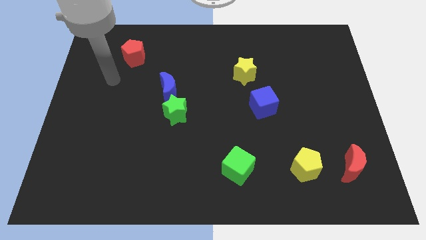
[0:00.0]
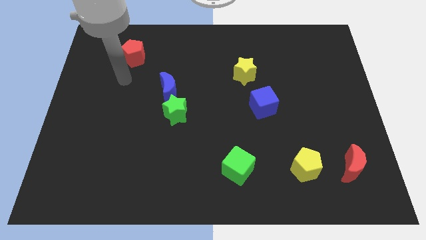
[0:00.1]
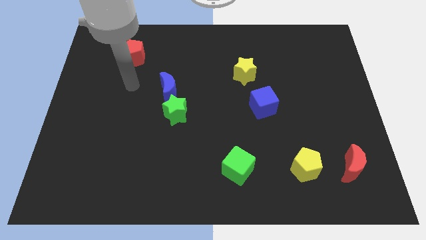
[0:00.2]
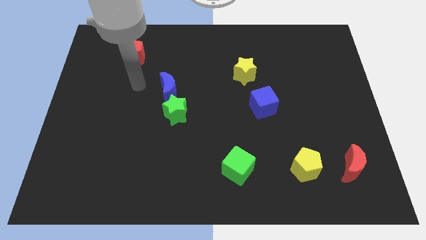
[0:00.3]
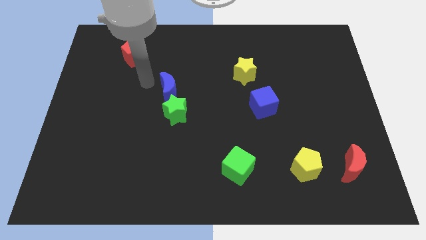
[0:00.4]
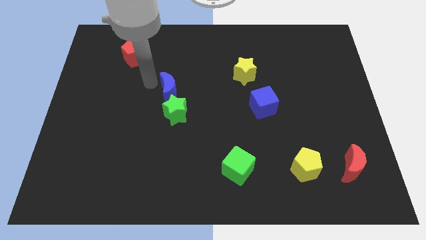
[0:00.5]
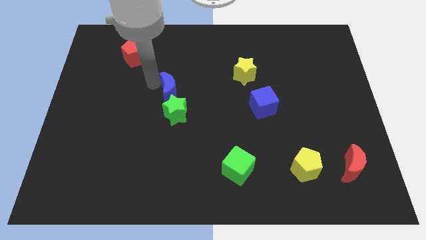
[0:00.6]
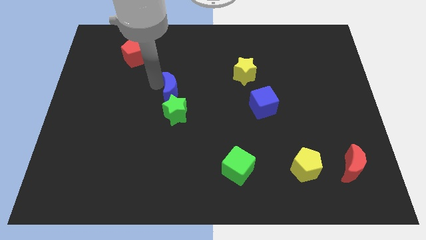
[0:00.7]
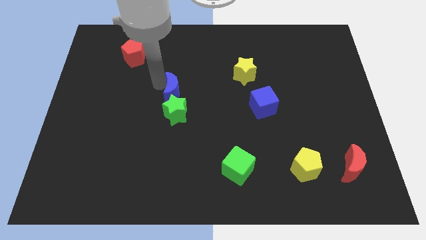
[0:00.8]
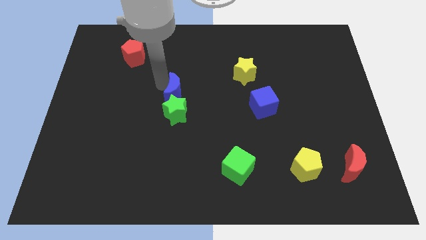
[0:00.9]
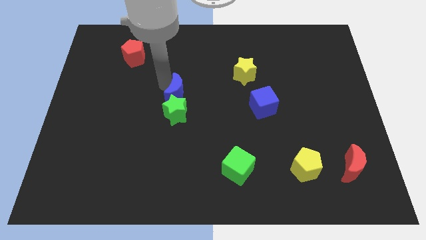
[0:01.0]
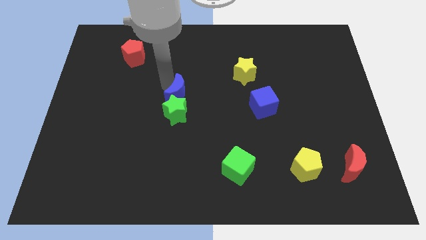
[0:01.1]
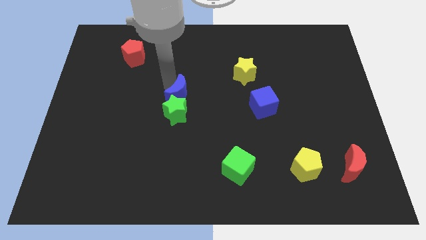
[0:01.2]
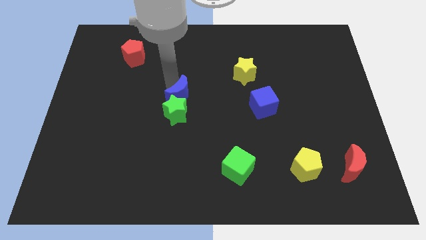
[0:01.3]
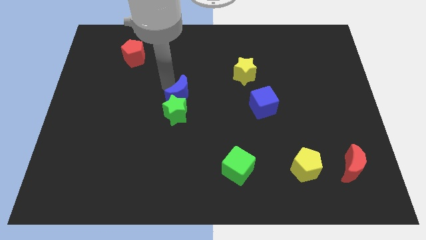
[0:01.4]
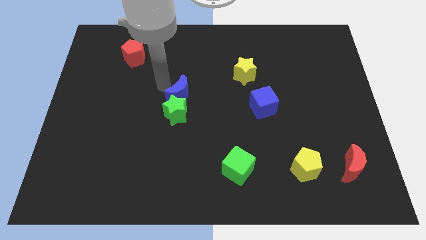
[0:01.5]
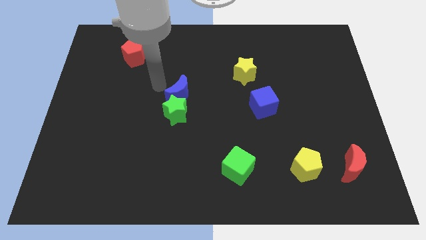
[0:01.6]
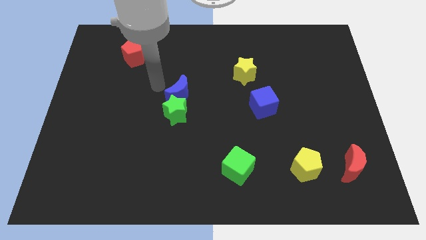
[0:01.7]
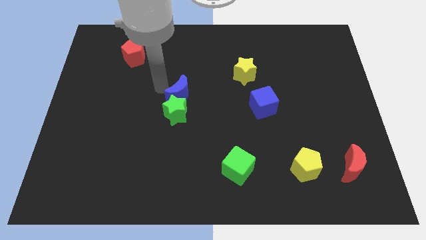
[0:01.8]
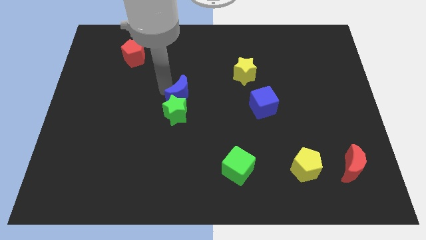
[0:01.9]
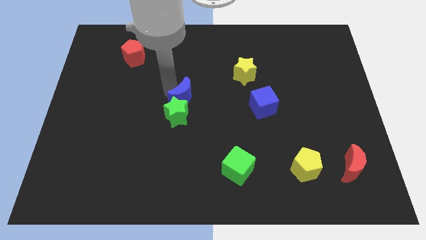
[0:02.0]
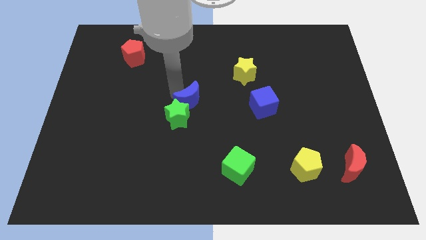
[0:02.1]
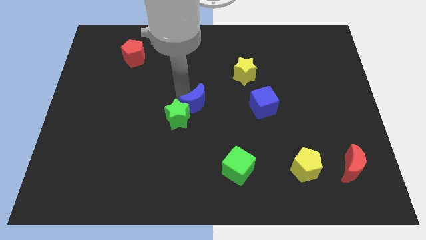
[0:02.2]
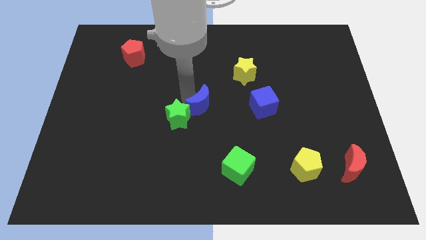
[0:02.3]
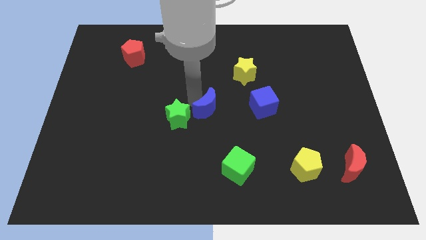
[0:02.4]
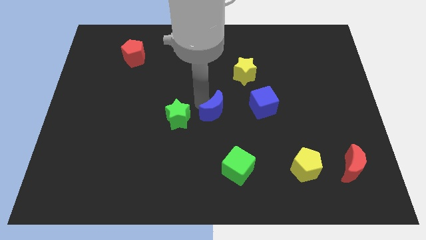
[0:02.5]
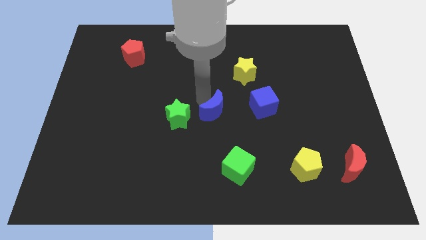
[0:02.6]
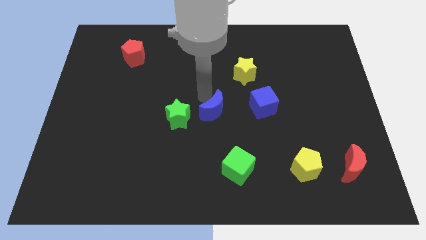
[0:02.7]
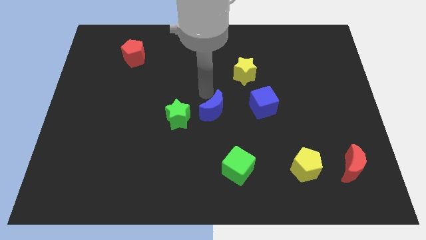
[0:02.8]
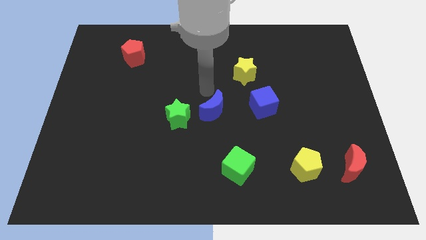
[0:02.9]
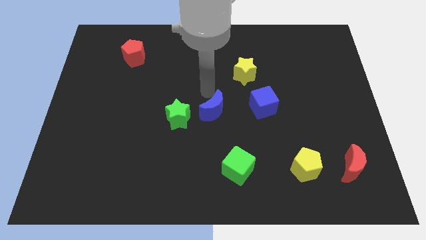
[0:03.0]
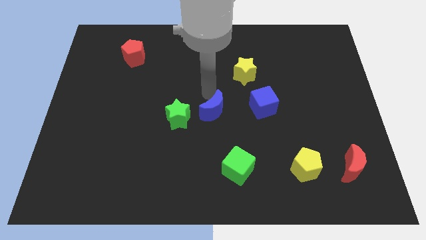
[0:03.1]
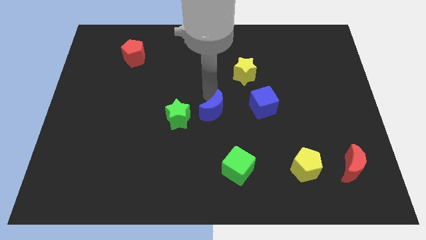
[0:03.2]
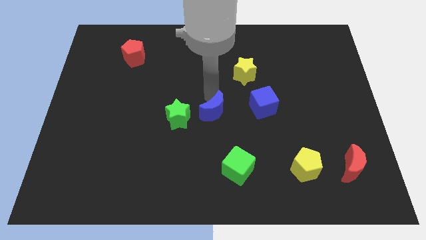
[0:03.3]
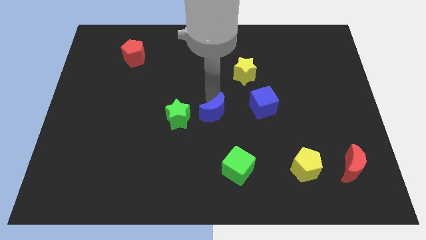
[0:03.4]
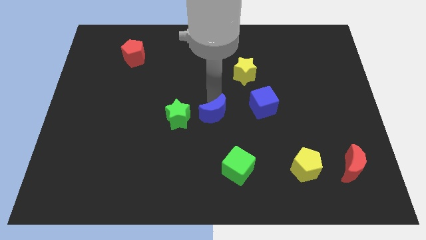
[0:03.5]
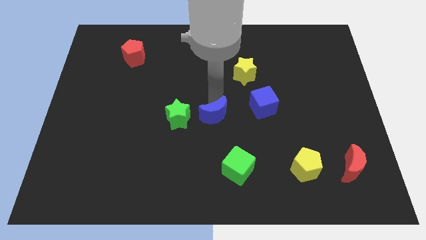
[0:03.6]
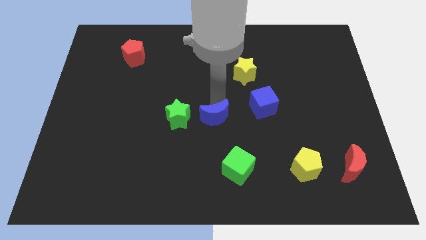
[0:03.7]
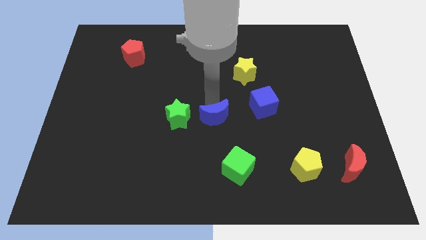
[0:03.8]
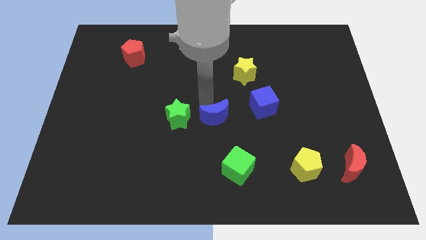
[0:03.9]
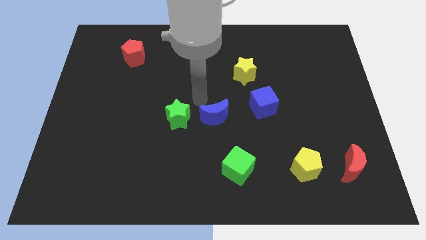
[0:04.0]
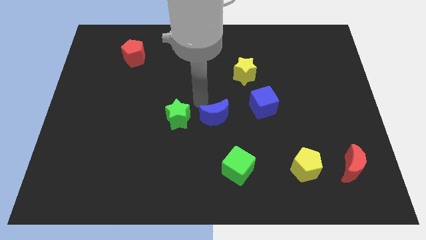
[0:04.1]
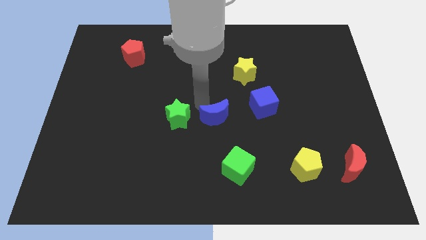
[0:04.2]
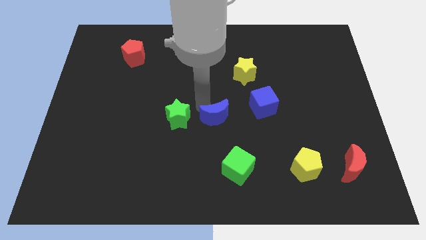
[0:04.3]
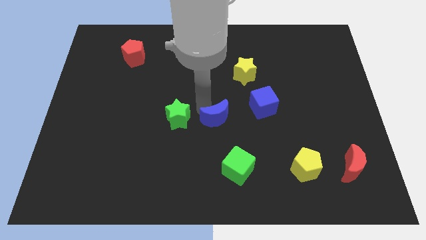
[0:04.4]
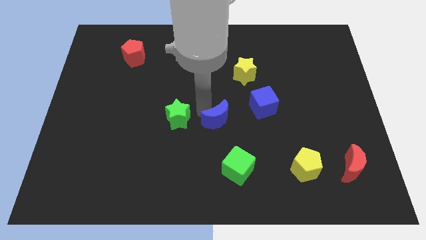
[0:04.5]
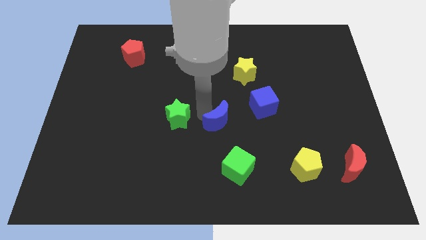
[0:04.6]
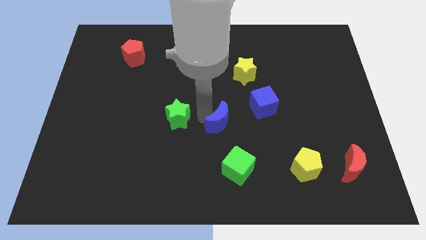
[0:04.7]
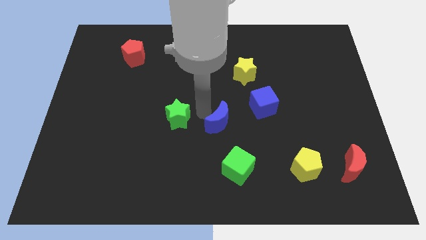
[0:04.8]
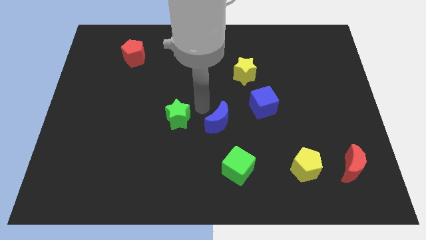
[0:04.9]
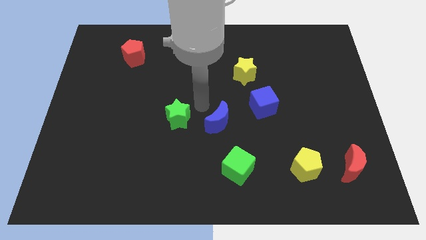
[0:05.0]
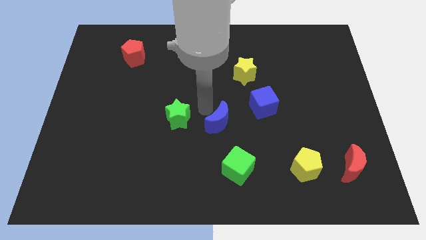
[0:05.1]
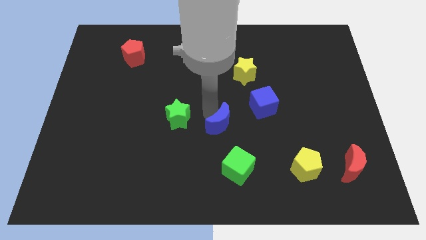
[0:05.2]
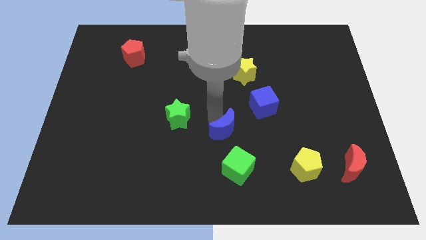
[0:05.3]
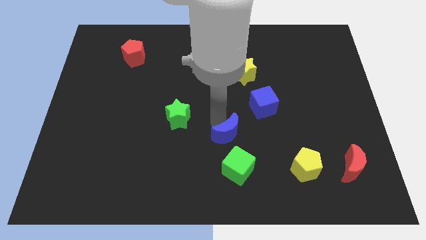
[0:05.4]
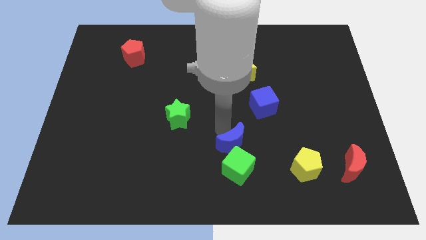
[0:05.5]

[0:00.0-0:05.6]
slide the blue moon diagonally downwards and to the right

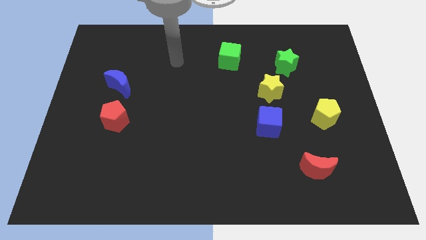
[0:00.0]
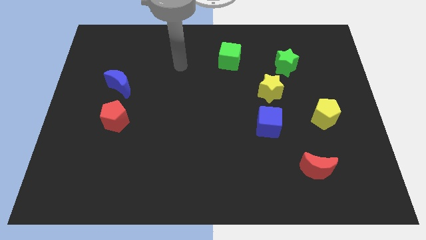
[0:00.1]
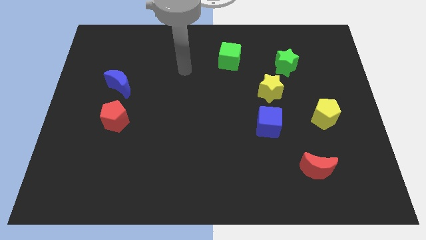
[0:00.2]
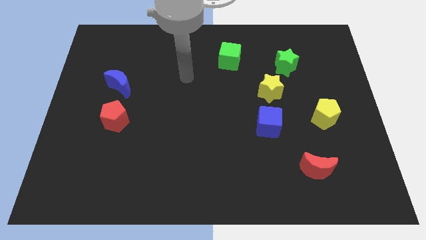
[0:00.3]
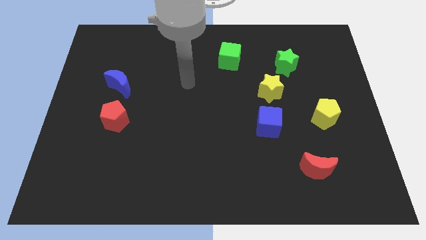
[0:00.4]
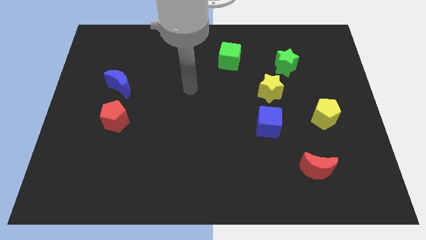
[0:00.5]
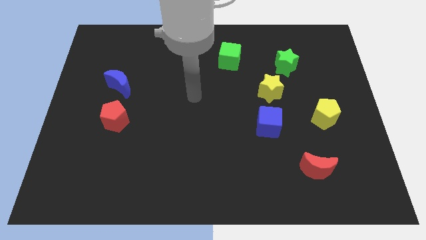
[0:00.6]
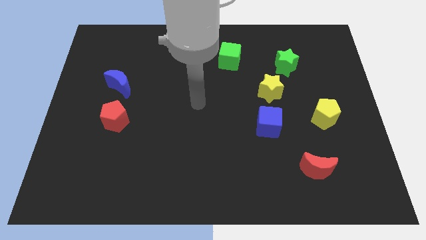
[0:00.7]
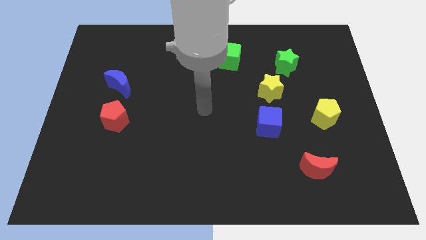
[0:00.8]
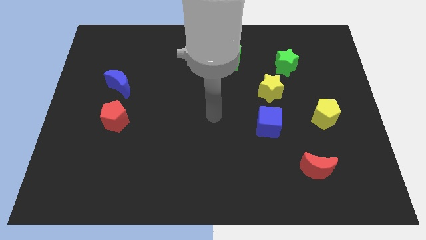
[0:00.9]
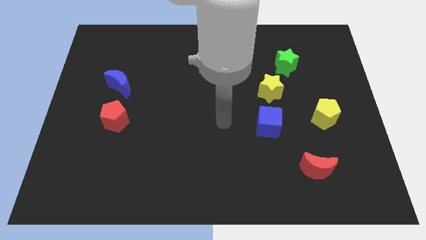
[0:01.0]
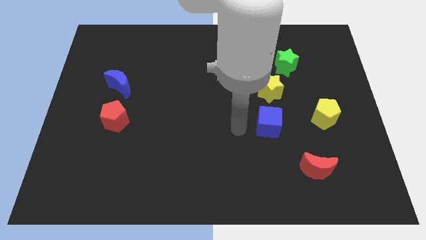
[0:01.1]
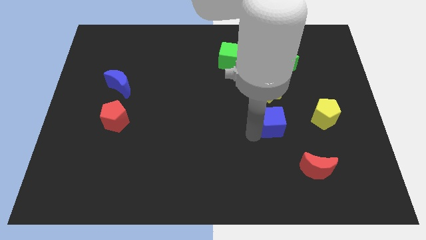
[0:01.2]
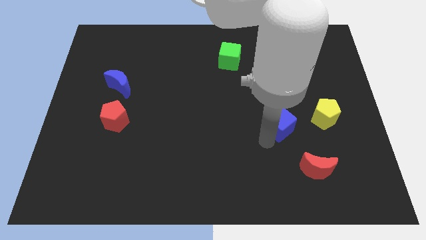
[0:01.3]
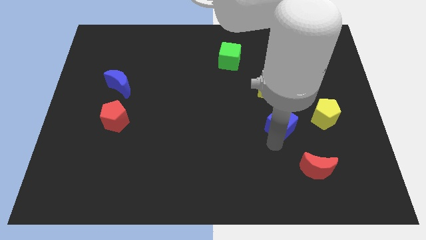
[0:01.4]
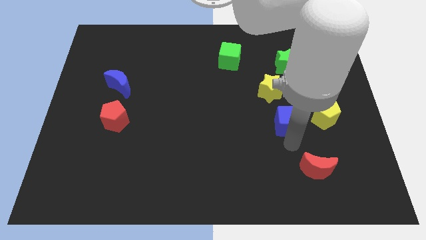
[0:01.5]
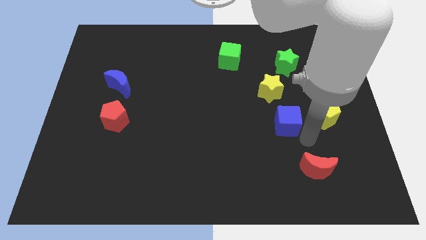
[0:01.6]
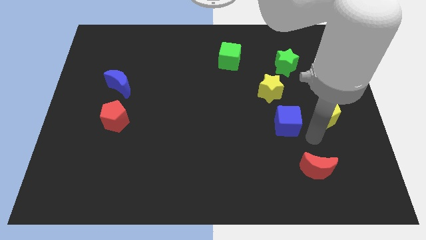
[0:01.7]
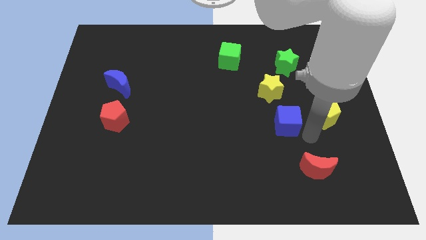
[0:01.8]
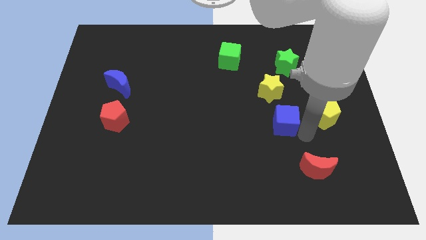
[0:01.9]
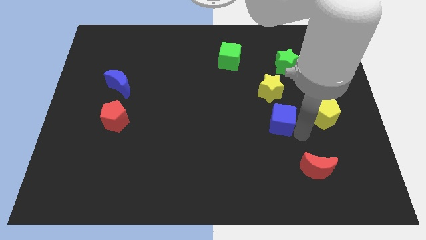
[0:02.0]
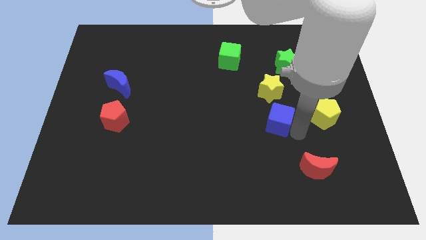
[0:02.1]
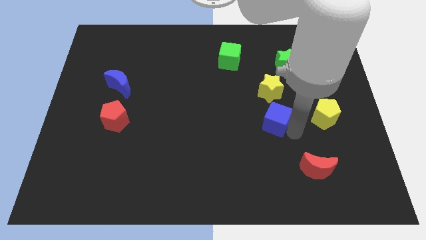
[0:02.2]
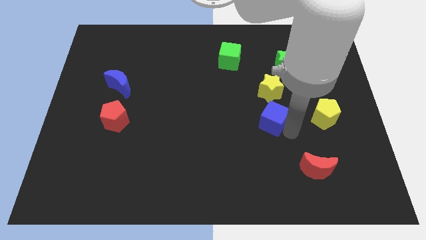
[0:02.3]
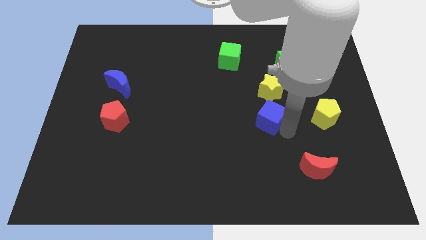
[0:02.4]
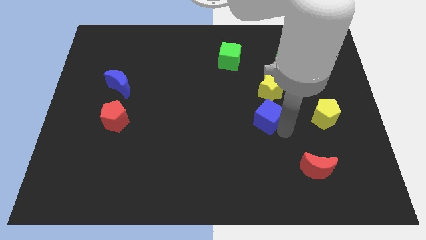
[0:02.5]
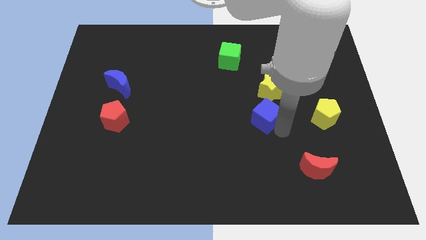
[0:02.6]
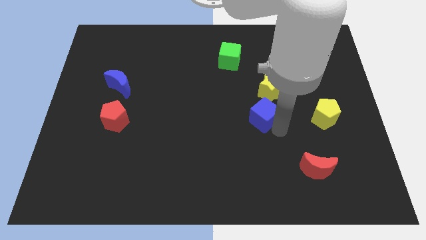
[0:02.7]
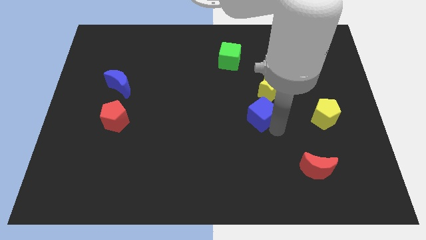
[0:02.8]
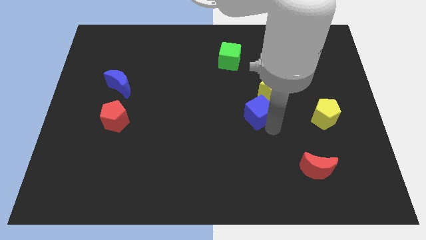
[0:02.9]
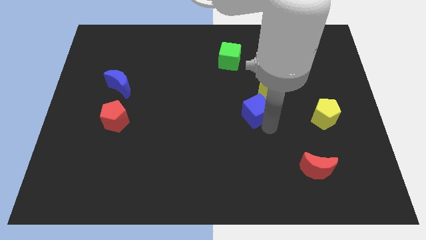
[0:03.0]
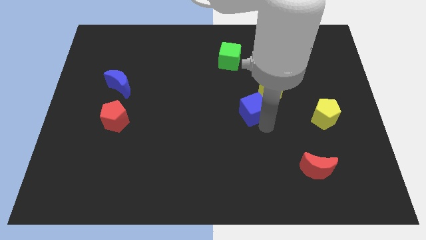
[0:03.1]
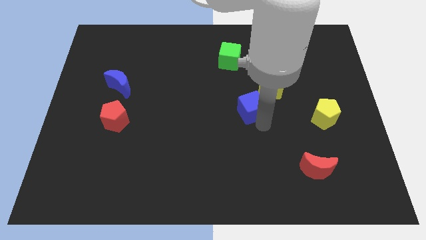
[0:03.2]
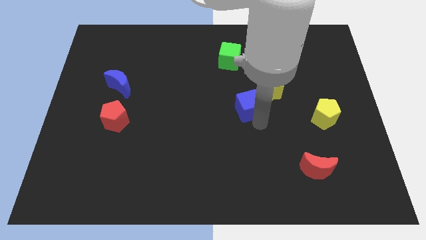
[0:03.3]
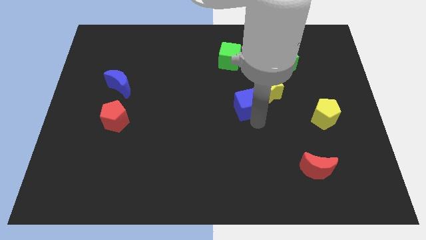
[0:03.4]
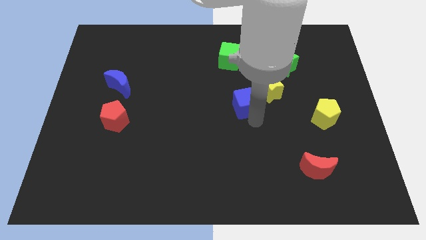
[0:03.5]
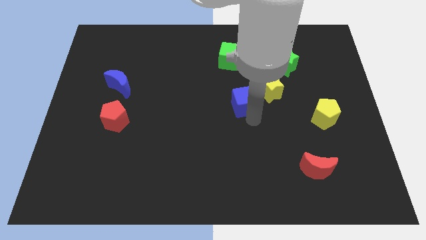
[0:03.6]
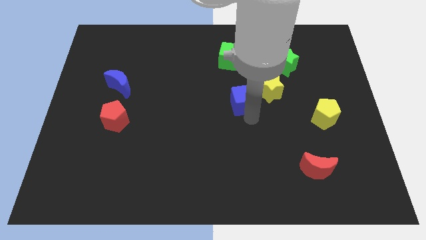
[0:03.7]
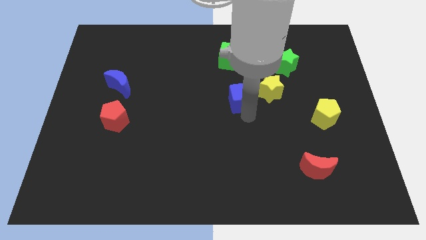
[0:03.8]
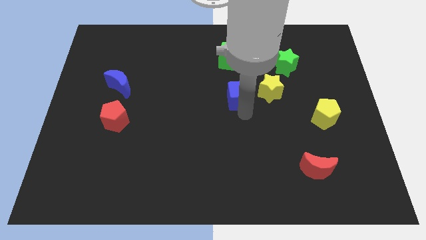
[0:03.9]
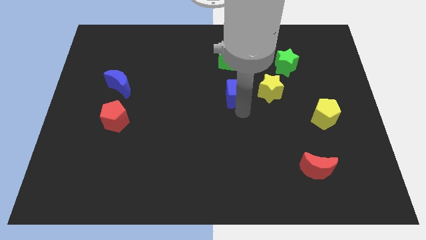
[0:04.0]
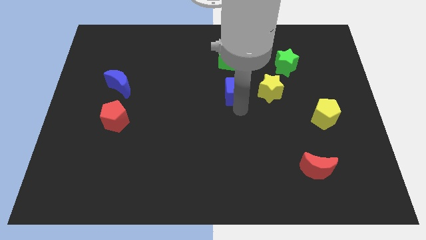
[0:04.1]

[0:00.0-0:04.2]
slide the blue cube up a bit
